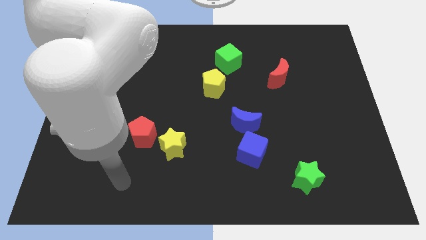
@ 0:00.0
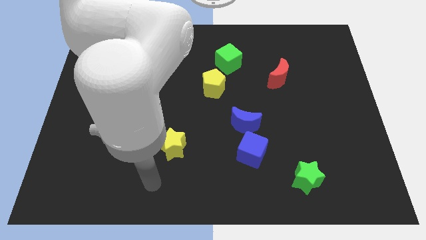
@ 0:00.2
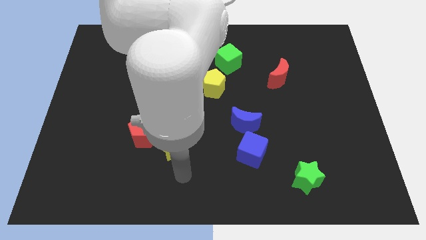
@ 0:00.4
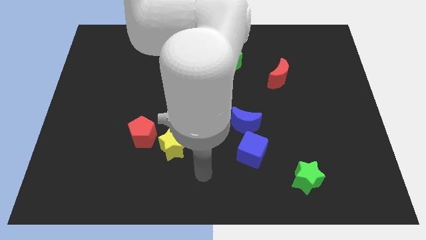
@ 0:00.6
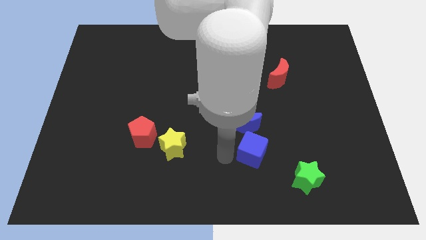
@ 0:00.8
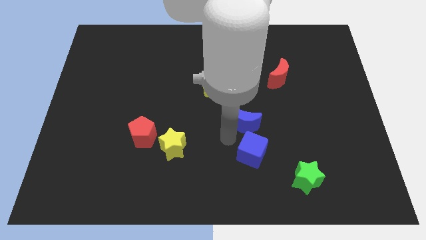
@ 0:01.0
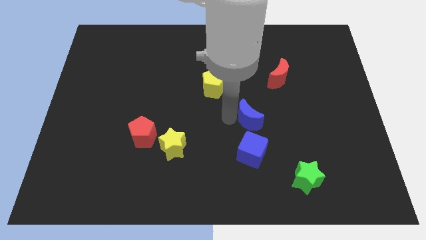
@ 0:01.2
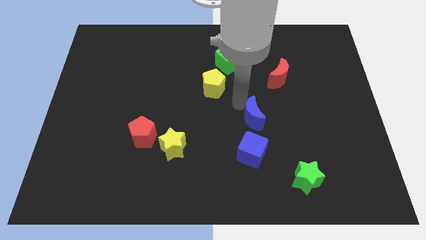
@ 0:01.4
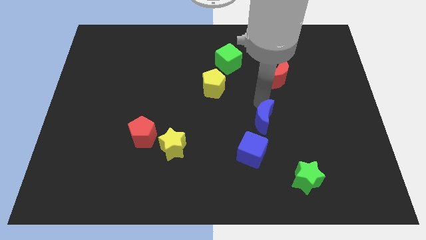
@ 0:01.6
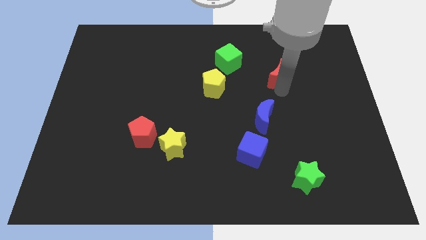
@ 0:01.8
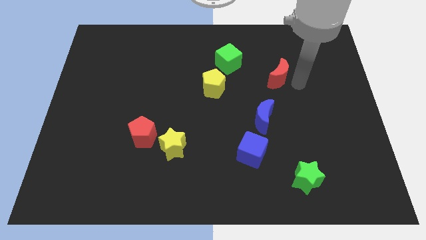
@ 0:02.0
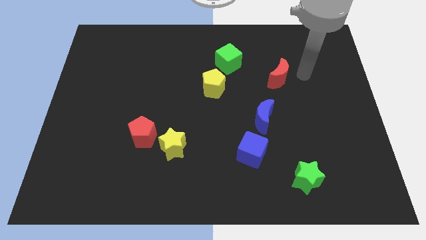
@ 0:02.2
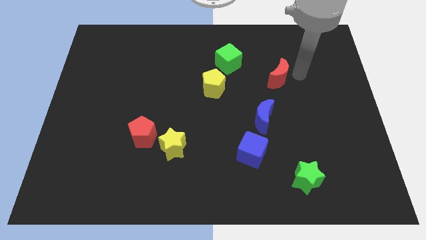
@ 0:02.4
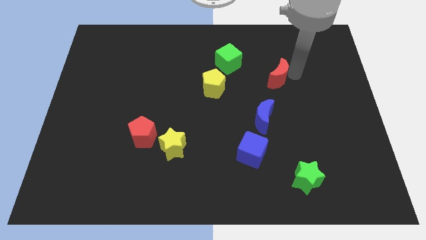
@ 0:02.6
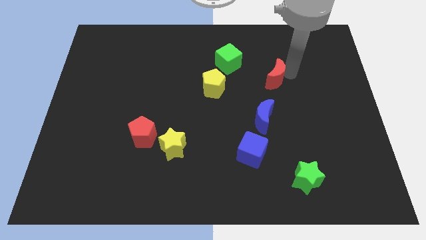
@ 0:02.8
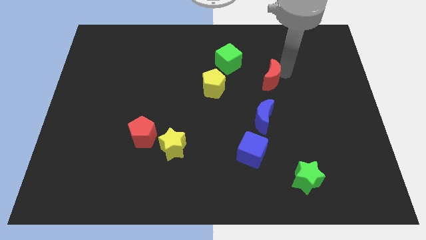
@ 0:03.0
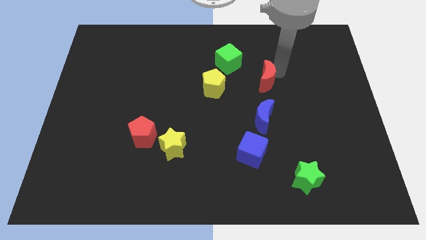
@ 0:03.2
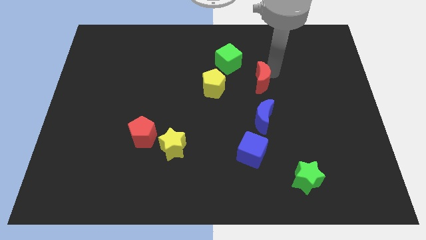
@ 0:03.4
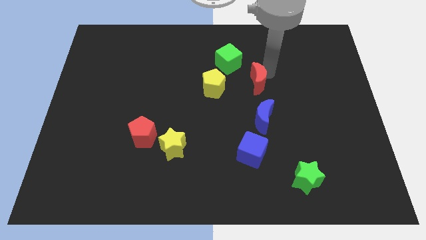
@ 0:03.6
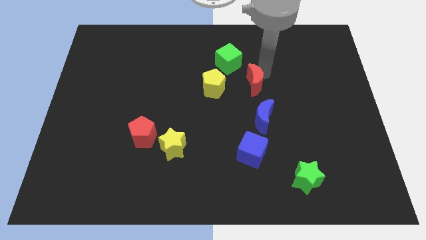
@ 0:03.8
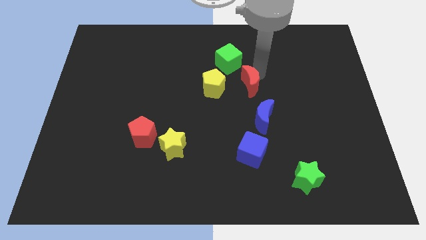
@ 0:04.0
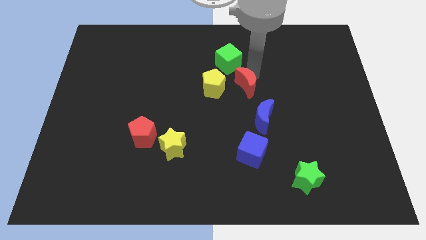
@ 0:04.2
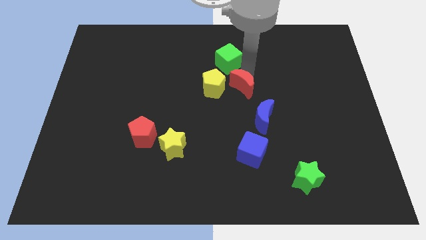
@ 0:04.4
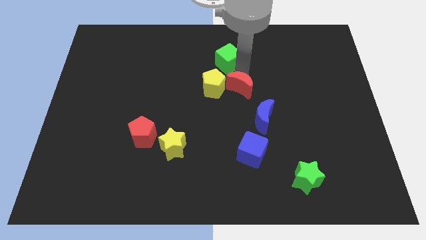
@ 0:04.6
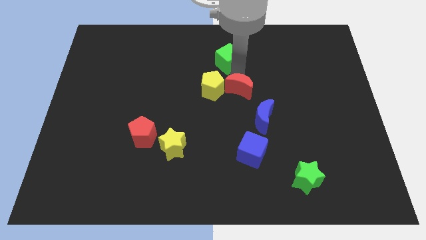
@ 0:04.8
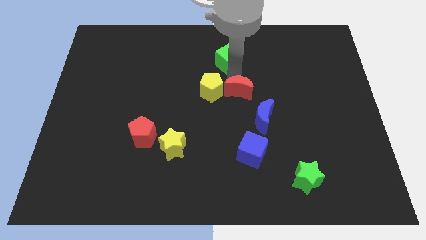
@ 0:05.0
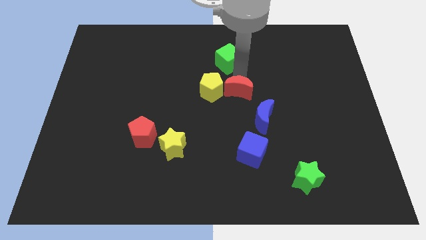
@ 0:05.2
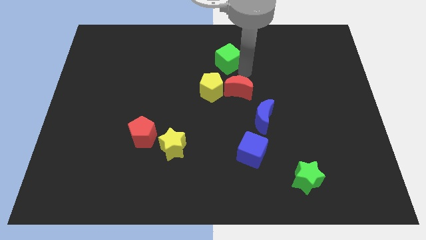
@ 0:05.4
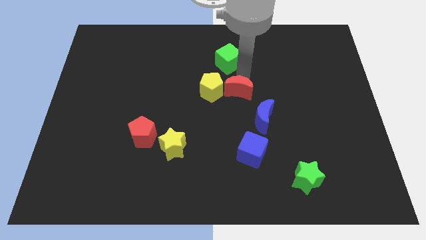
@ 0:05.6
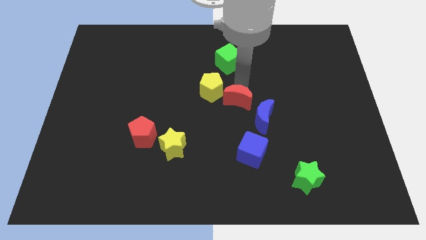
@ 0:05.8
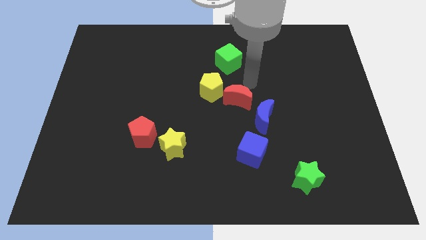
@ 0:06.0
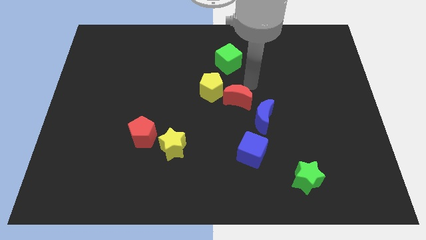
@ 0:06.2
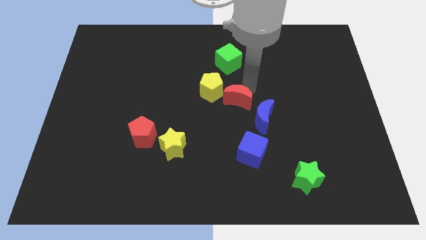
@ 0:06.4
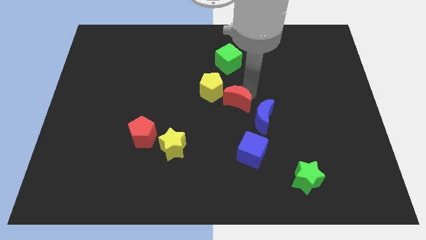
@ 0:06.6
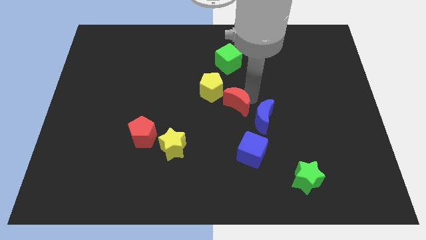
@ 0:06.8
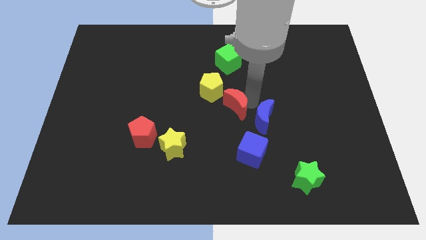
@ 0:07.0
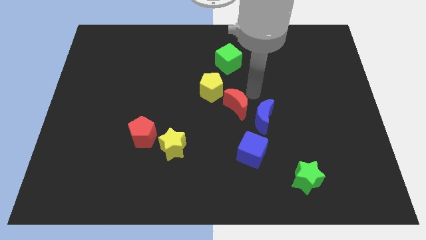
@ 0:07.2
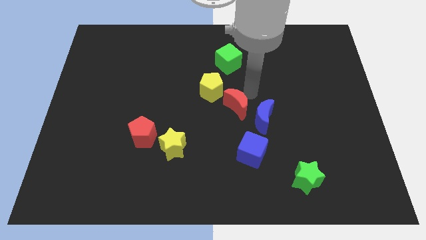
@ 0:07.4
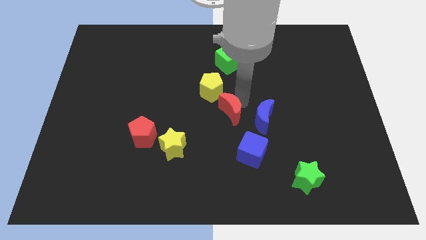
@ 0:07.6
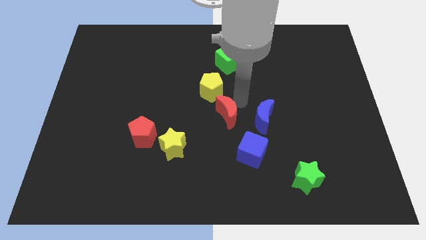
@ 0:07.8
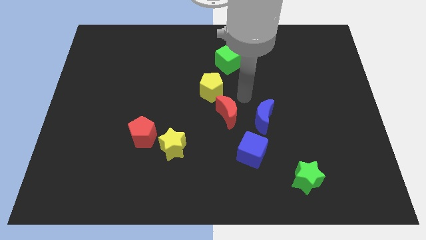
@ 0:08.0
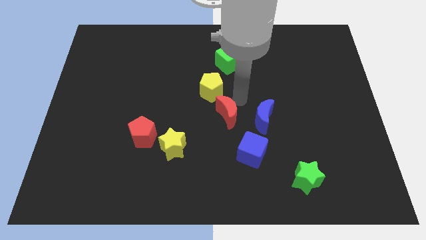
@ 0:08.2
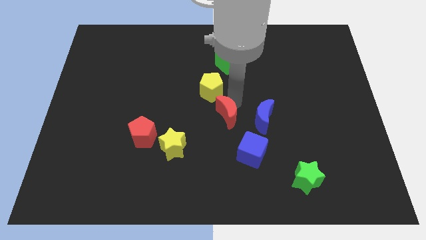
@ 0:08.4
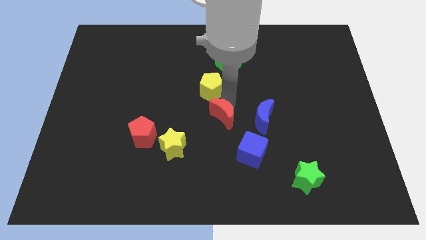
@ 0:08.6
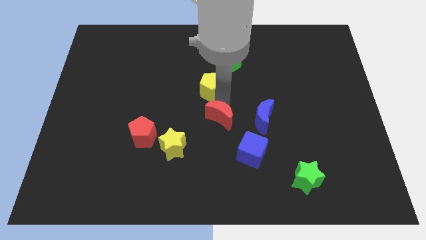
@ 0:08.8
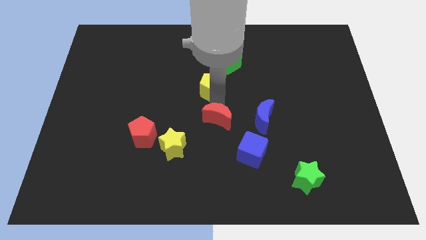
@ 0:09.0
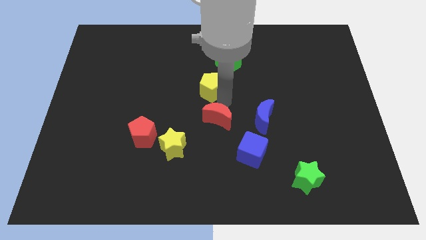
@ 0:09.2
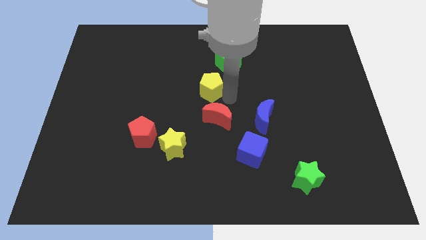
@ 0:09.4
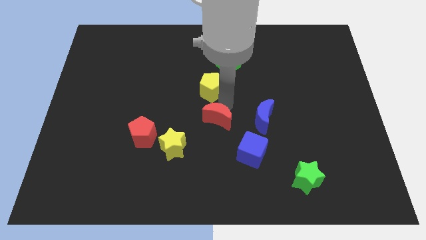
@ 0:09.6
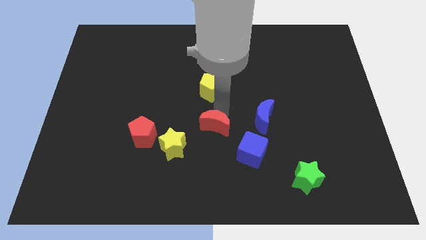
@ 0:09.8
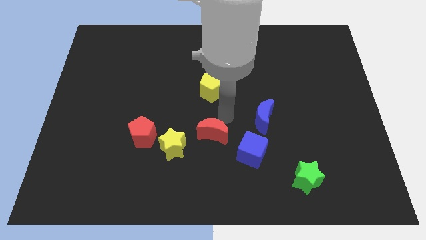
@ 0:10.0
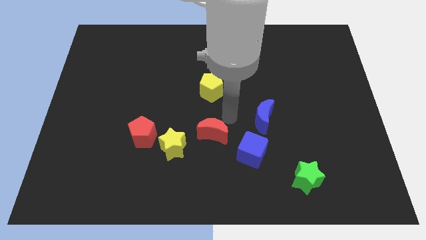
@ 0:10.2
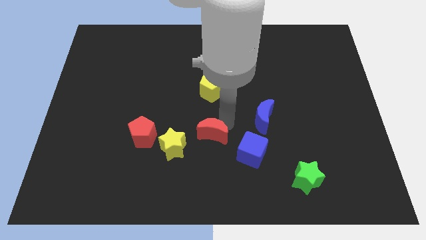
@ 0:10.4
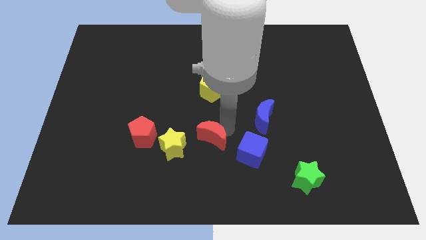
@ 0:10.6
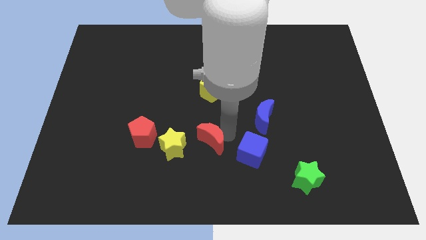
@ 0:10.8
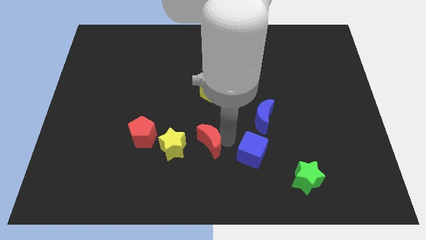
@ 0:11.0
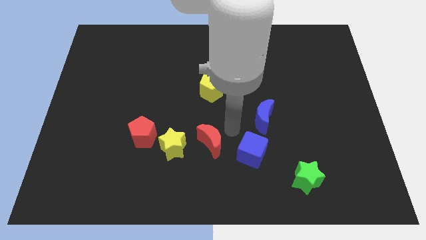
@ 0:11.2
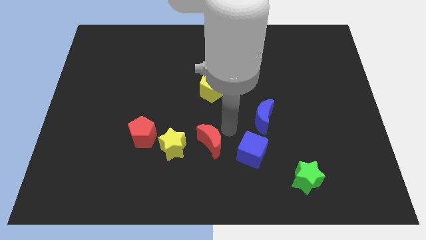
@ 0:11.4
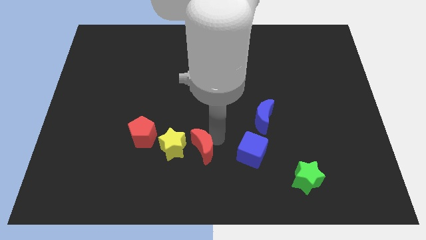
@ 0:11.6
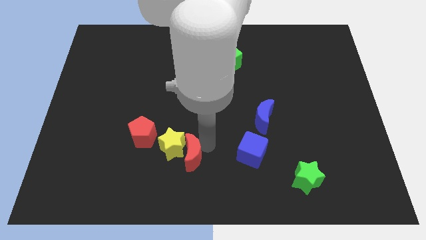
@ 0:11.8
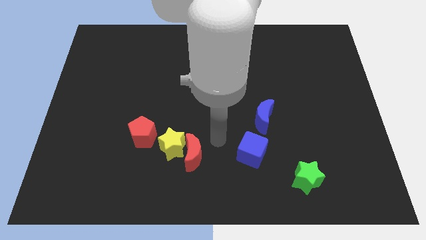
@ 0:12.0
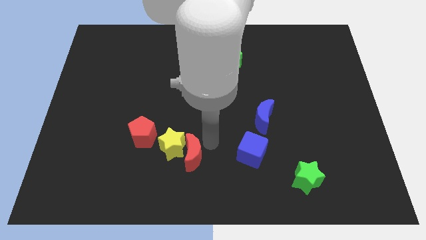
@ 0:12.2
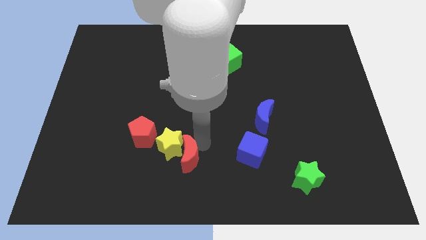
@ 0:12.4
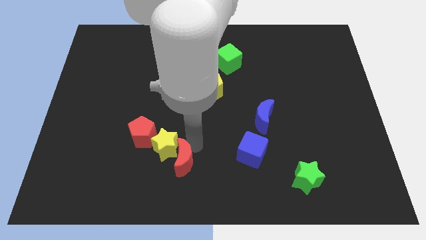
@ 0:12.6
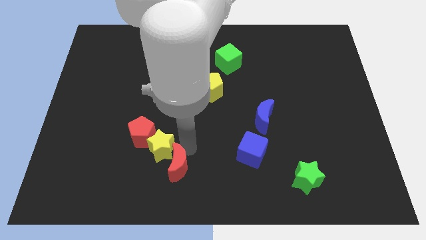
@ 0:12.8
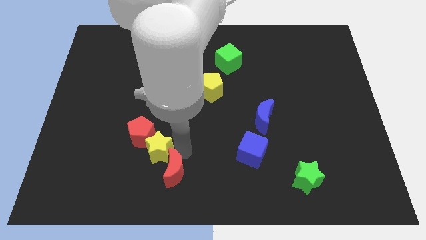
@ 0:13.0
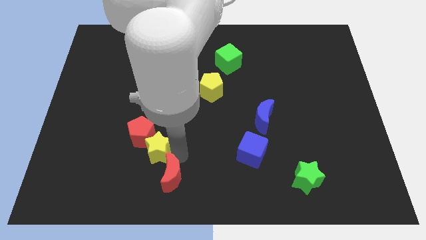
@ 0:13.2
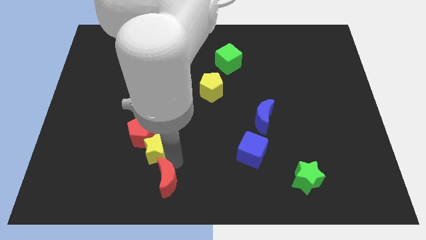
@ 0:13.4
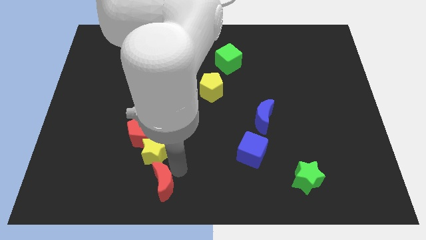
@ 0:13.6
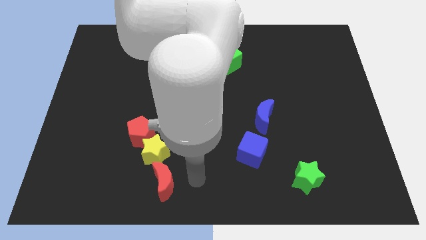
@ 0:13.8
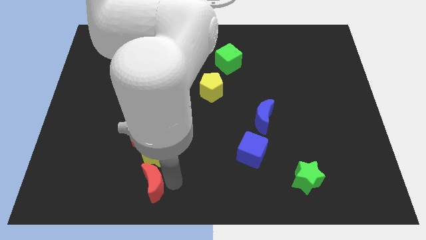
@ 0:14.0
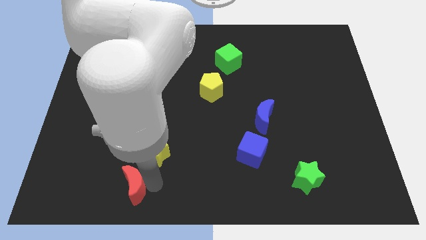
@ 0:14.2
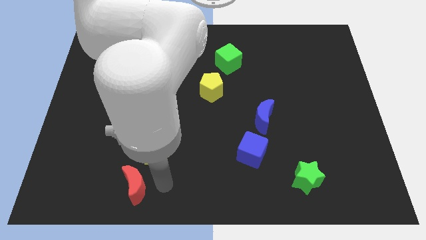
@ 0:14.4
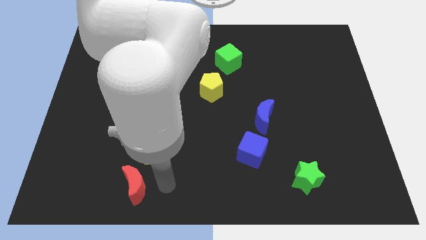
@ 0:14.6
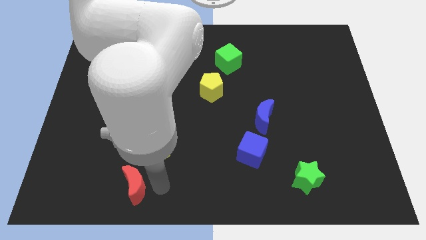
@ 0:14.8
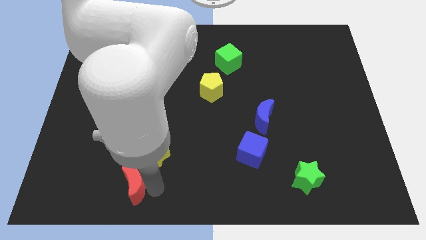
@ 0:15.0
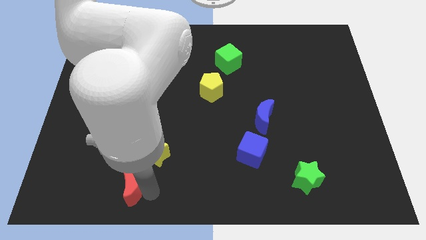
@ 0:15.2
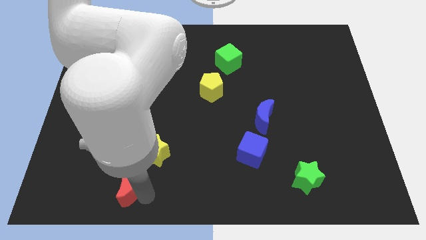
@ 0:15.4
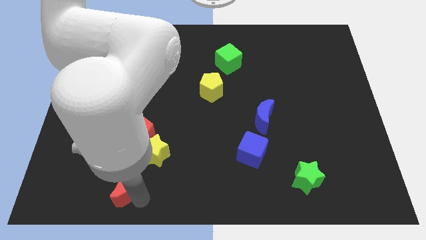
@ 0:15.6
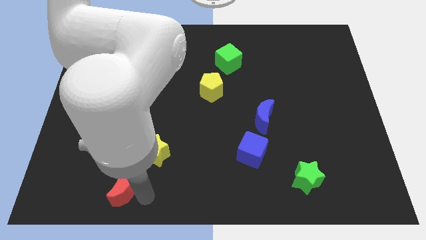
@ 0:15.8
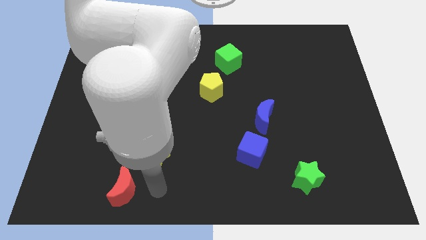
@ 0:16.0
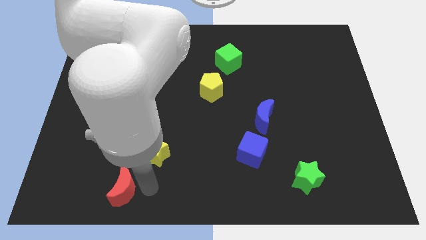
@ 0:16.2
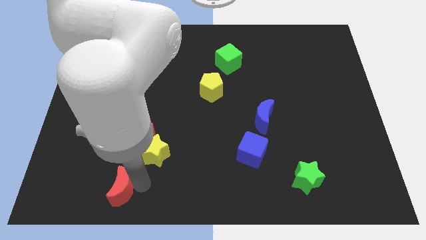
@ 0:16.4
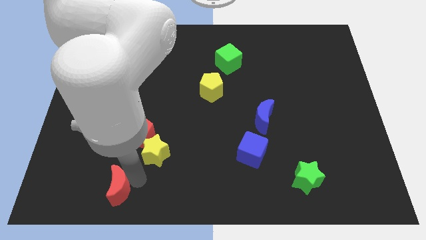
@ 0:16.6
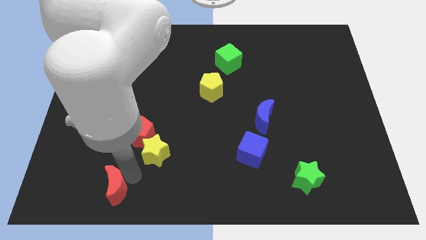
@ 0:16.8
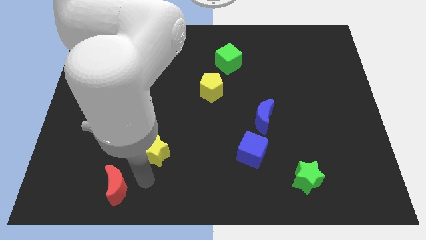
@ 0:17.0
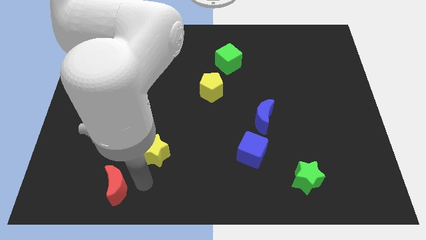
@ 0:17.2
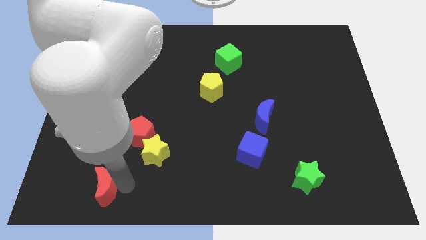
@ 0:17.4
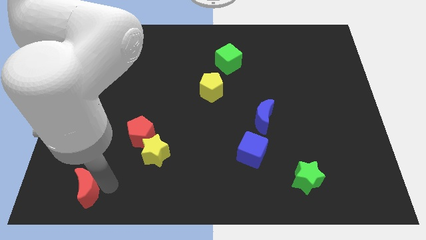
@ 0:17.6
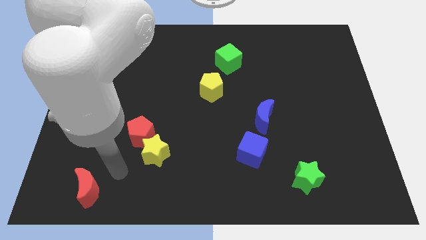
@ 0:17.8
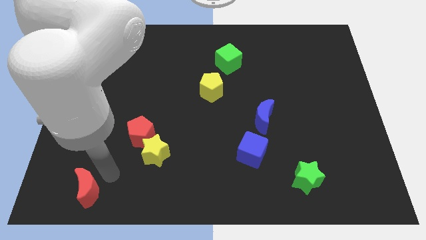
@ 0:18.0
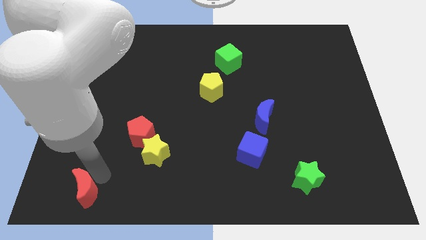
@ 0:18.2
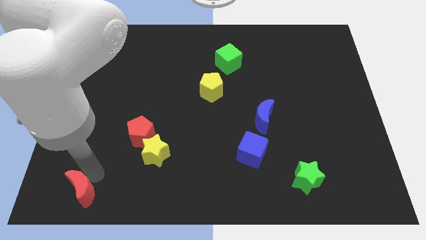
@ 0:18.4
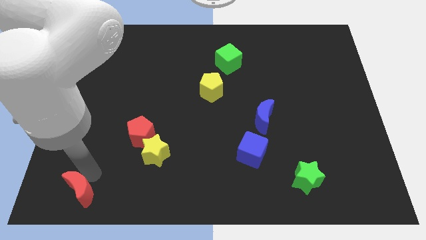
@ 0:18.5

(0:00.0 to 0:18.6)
slide the red moon to the bottom left
